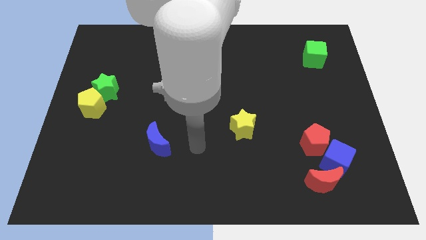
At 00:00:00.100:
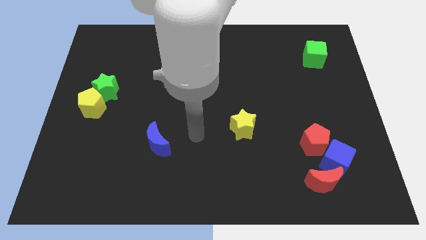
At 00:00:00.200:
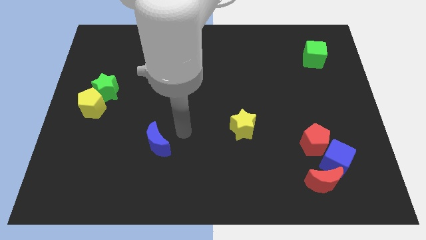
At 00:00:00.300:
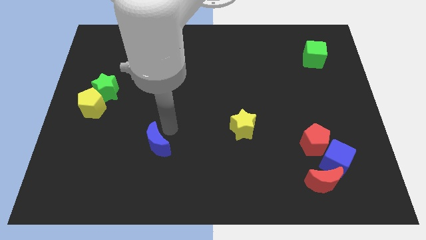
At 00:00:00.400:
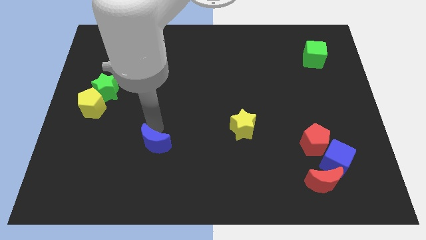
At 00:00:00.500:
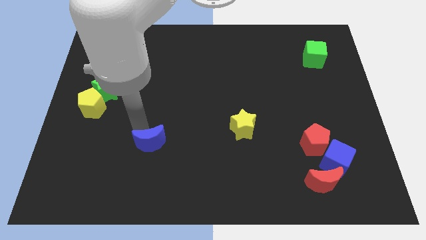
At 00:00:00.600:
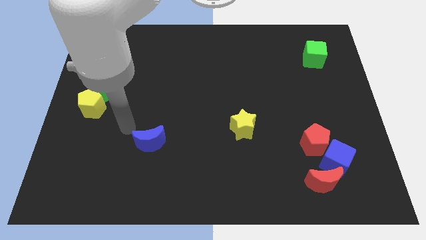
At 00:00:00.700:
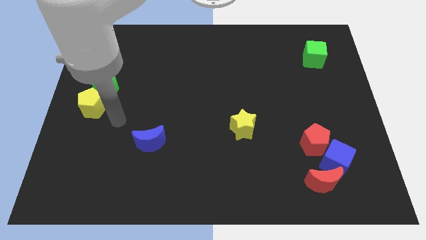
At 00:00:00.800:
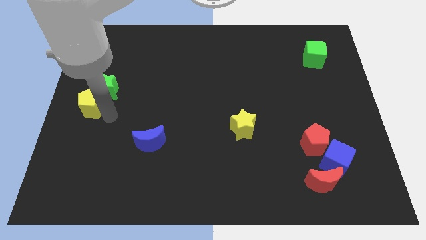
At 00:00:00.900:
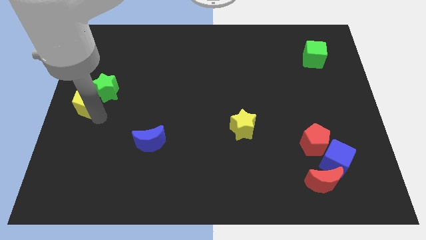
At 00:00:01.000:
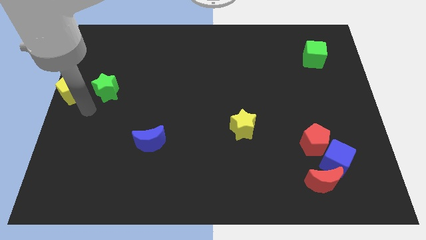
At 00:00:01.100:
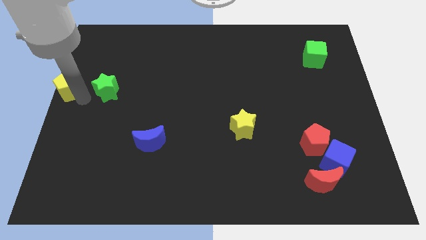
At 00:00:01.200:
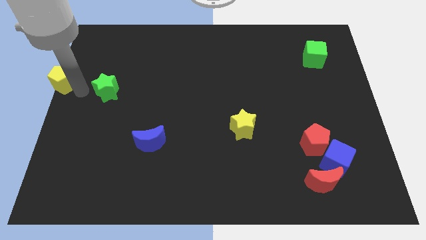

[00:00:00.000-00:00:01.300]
move the green star away from the yellow pentagon

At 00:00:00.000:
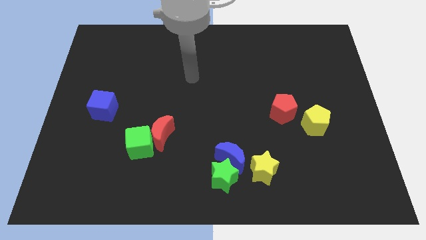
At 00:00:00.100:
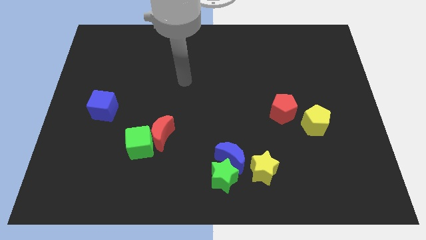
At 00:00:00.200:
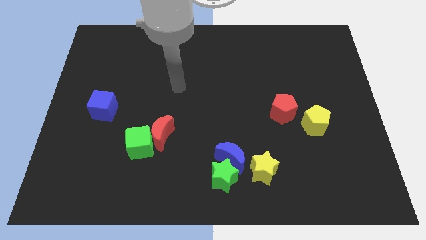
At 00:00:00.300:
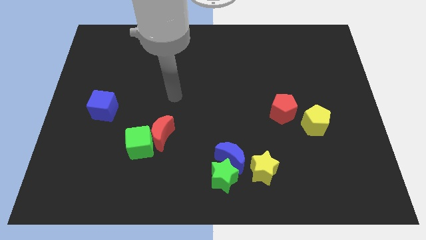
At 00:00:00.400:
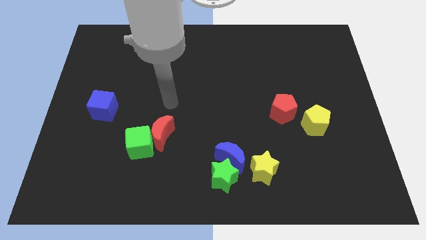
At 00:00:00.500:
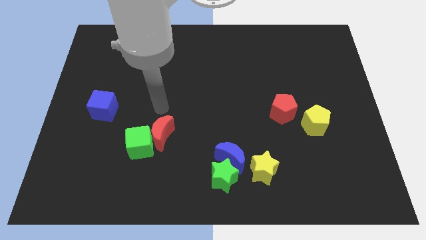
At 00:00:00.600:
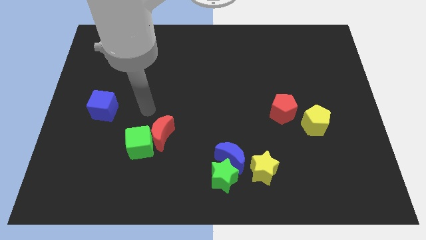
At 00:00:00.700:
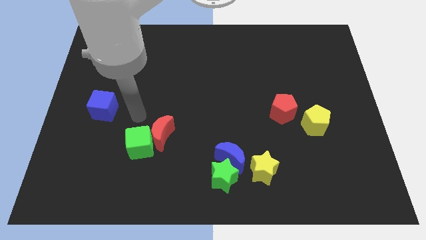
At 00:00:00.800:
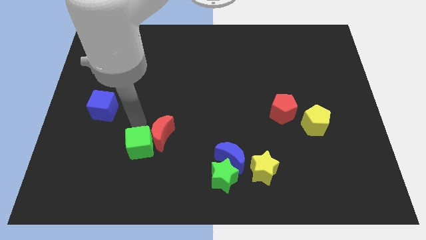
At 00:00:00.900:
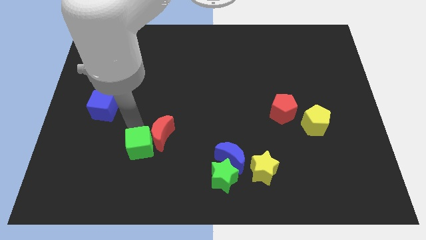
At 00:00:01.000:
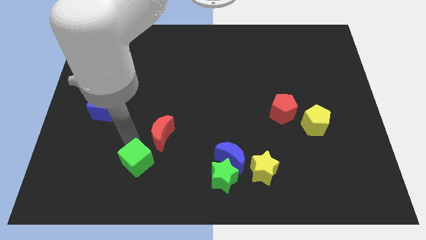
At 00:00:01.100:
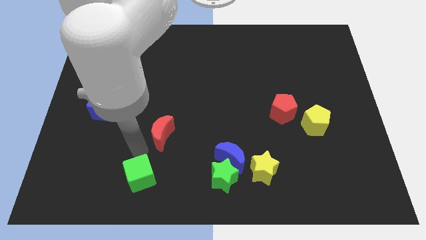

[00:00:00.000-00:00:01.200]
pull the red moon apart from the green cube

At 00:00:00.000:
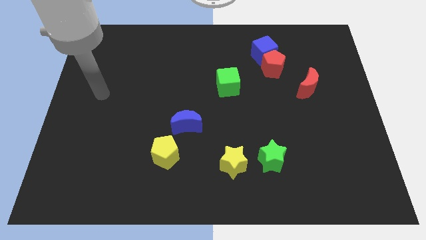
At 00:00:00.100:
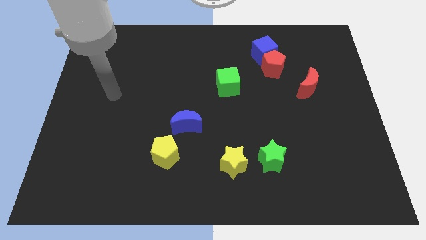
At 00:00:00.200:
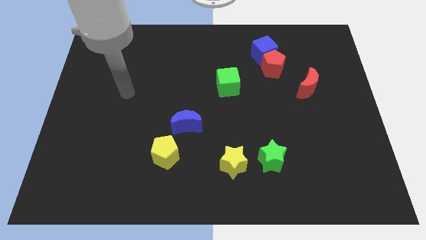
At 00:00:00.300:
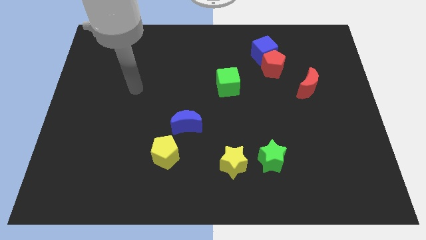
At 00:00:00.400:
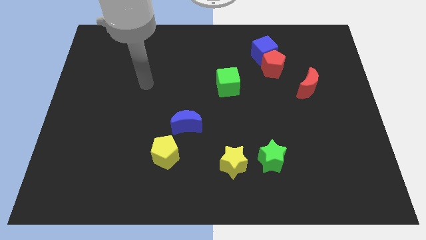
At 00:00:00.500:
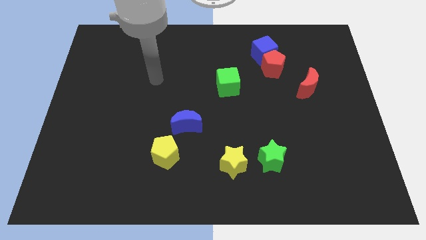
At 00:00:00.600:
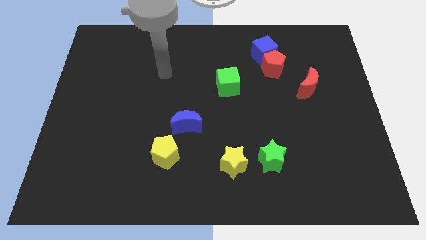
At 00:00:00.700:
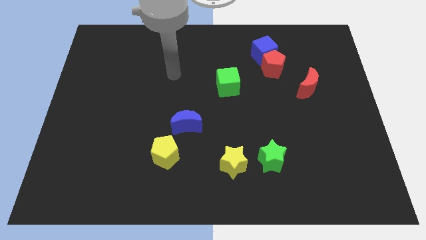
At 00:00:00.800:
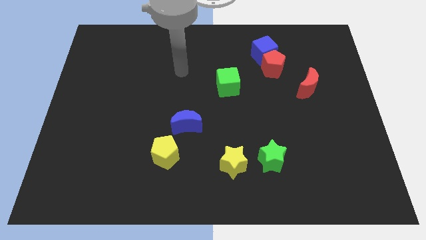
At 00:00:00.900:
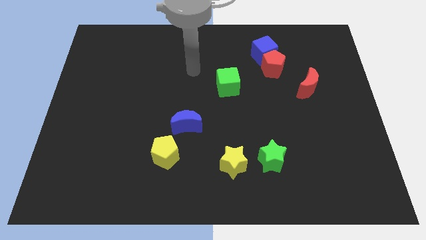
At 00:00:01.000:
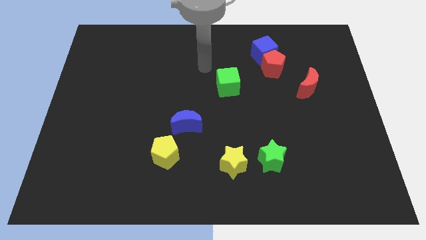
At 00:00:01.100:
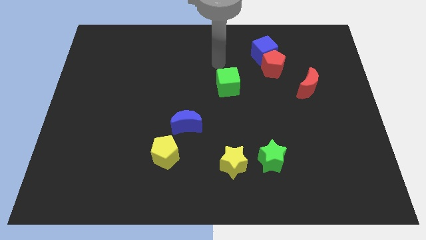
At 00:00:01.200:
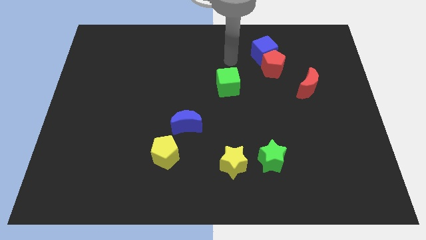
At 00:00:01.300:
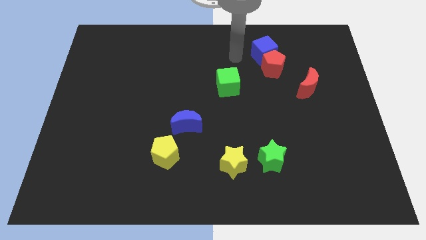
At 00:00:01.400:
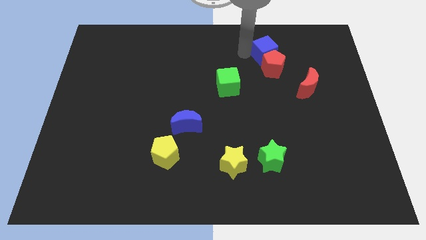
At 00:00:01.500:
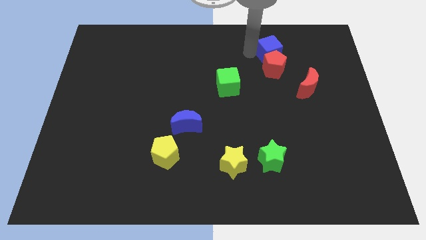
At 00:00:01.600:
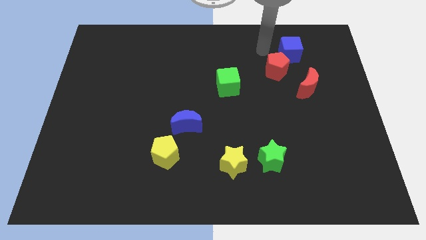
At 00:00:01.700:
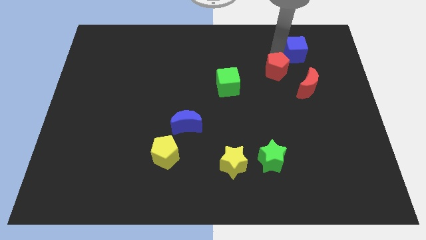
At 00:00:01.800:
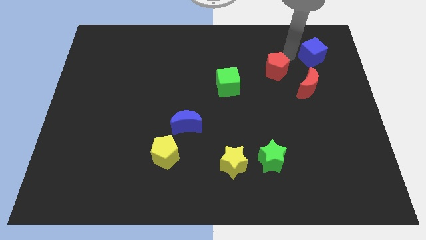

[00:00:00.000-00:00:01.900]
move the red pentagon away from the blue cube

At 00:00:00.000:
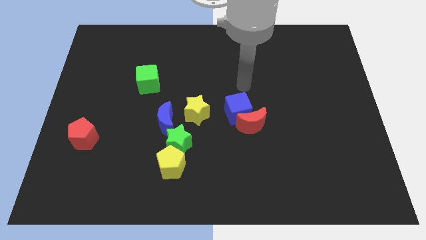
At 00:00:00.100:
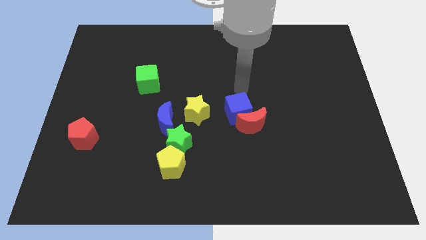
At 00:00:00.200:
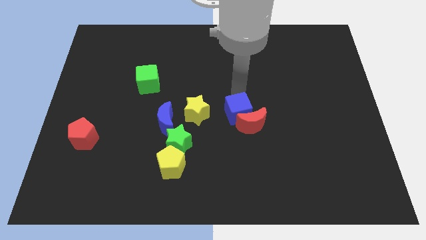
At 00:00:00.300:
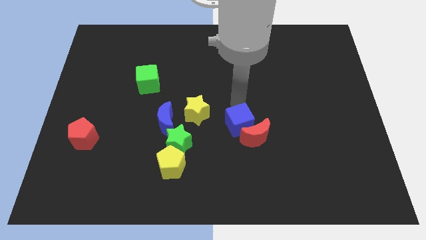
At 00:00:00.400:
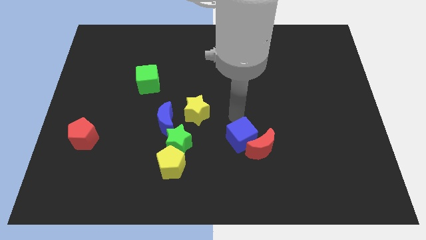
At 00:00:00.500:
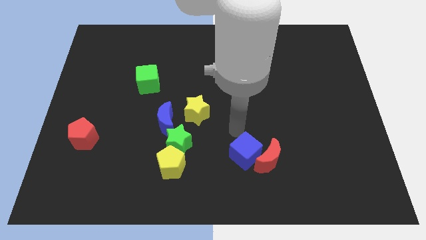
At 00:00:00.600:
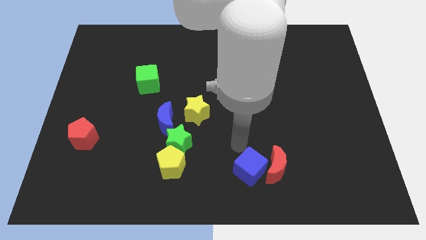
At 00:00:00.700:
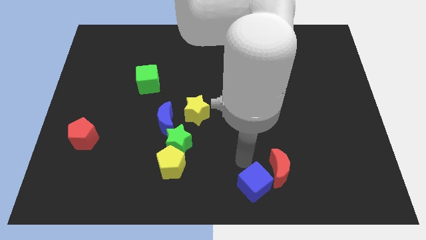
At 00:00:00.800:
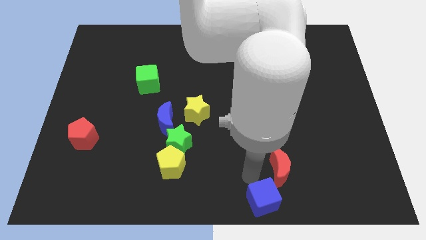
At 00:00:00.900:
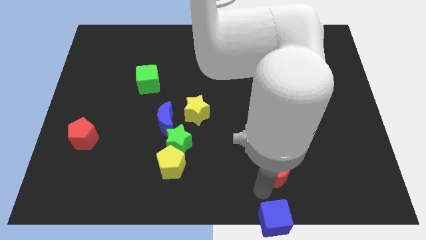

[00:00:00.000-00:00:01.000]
pull the red moon apart from the blue cube

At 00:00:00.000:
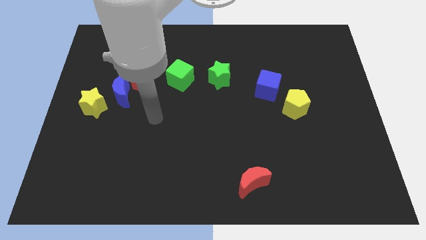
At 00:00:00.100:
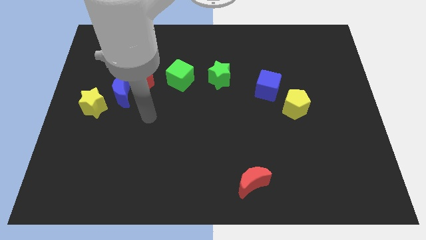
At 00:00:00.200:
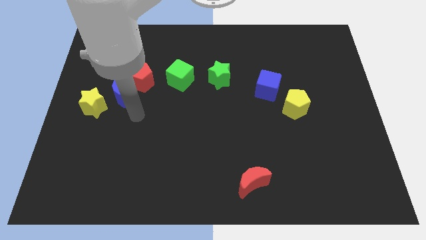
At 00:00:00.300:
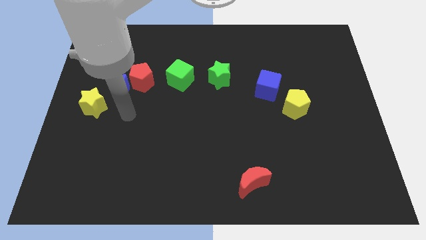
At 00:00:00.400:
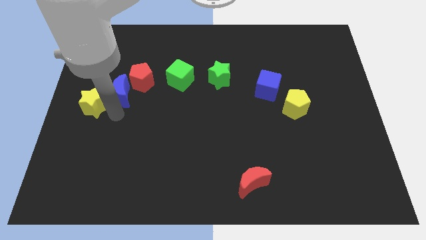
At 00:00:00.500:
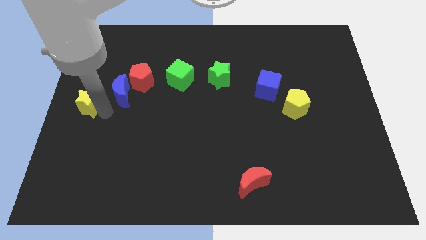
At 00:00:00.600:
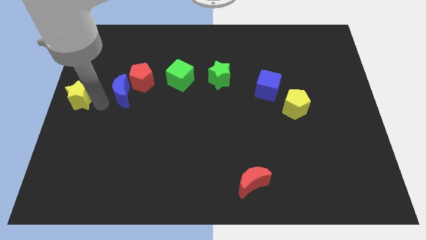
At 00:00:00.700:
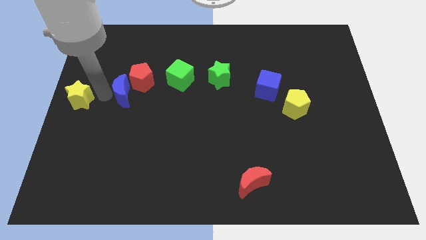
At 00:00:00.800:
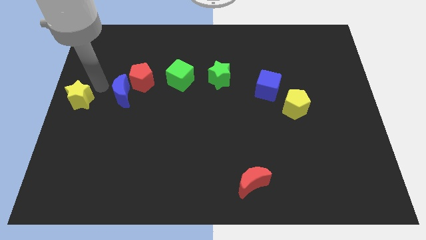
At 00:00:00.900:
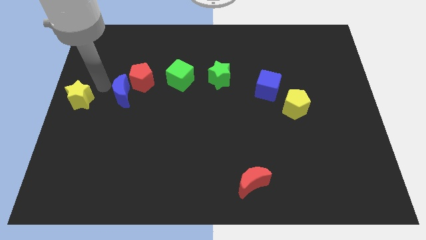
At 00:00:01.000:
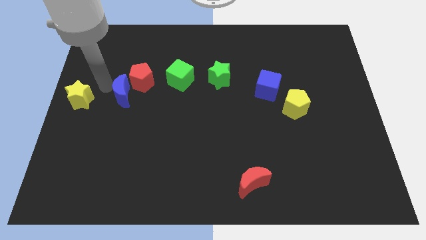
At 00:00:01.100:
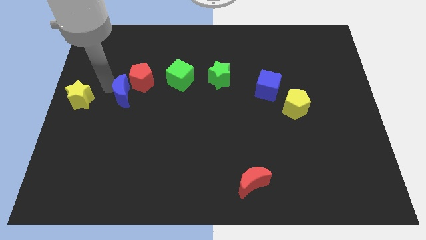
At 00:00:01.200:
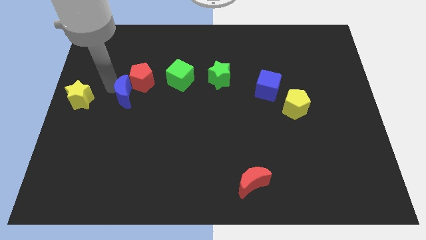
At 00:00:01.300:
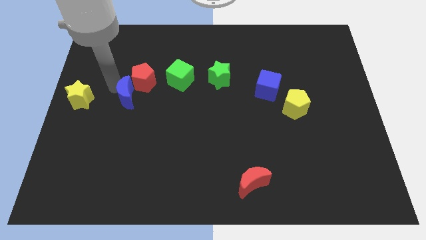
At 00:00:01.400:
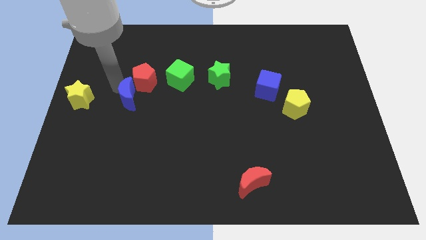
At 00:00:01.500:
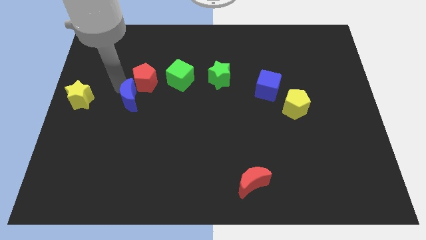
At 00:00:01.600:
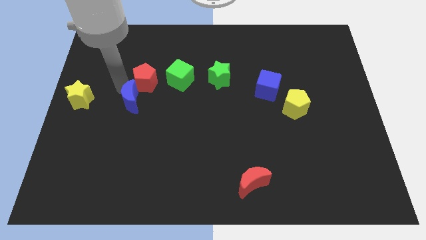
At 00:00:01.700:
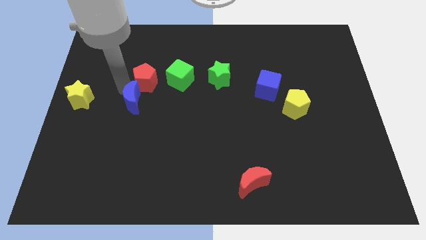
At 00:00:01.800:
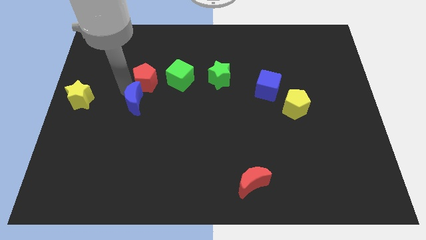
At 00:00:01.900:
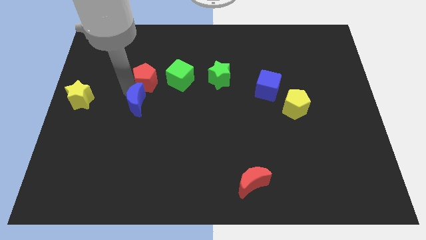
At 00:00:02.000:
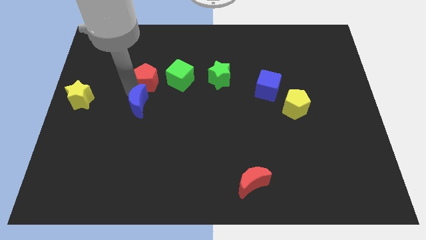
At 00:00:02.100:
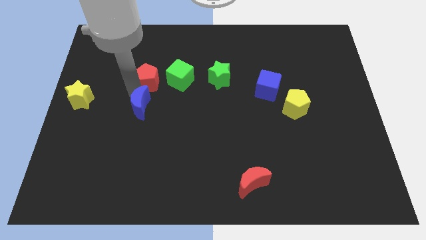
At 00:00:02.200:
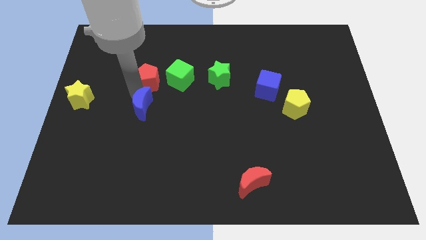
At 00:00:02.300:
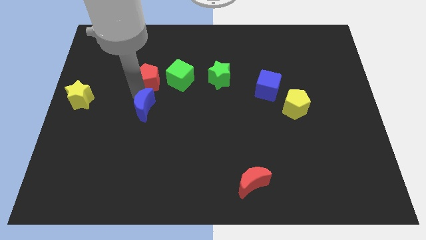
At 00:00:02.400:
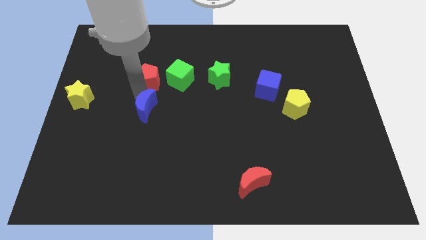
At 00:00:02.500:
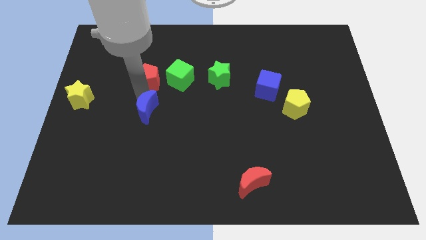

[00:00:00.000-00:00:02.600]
separate the blue moon from the red pentagon and yellow star

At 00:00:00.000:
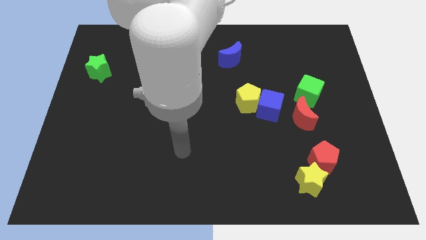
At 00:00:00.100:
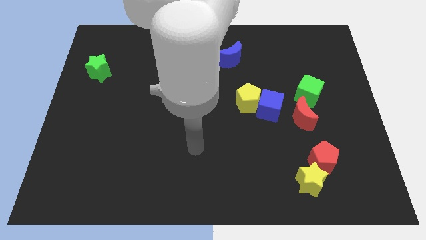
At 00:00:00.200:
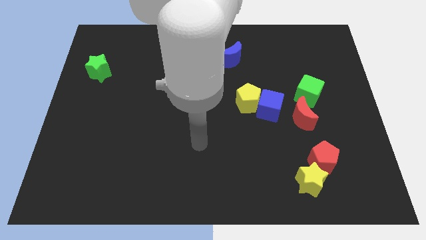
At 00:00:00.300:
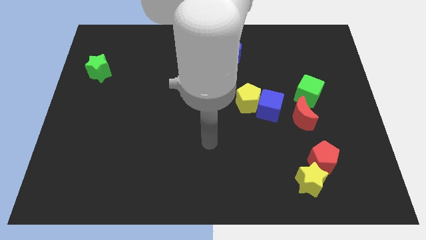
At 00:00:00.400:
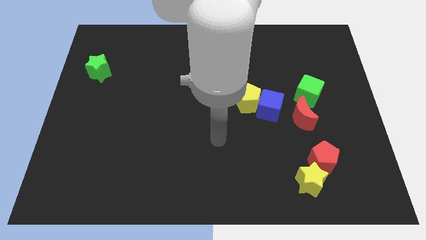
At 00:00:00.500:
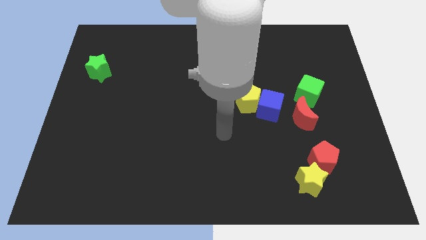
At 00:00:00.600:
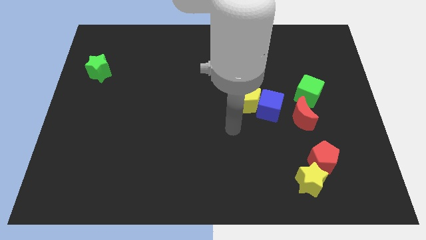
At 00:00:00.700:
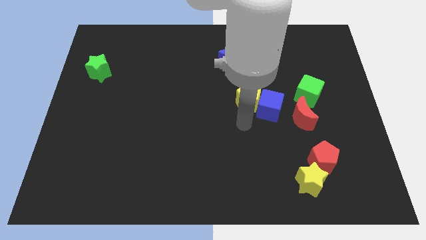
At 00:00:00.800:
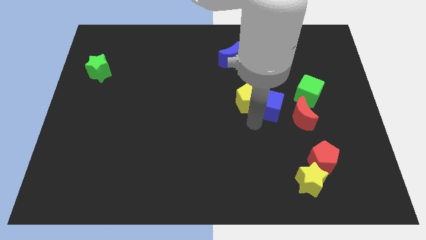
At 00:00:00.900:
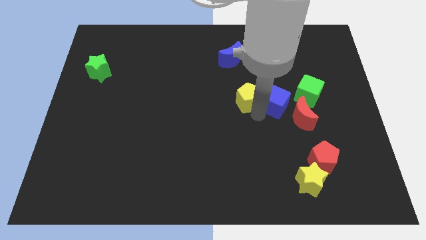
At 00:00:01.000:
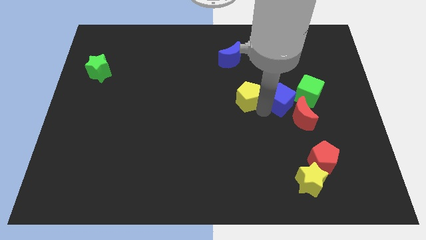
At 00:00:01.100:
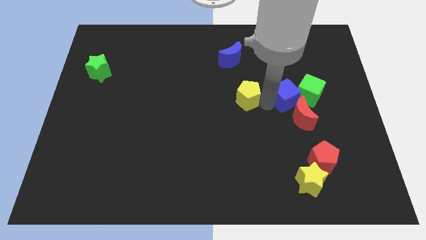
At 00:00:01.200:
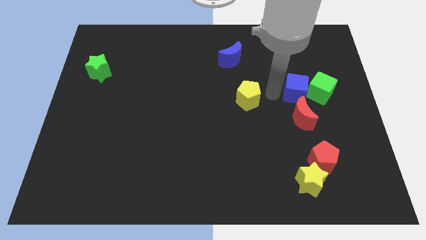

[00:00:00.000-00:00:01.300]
move the yellow pentagon away from the blue cube

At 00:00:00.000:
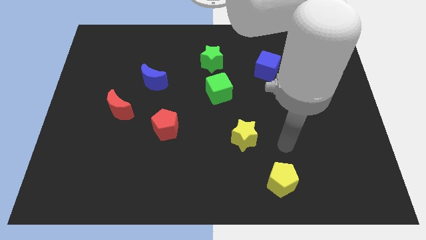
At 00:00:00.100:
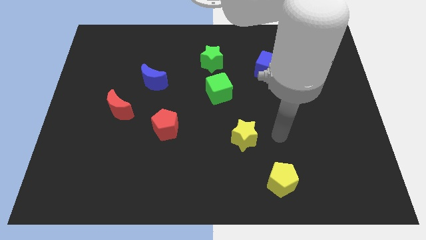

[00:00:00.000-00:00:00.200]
move the green cube away from the green star
